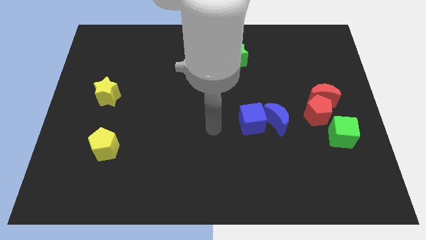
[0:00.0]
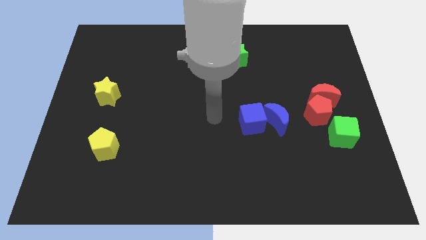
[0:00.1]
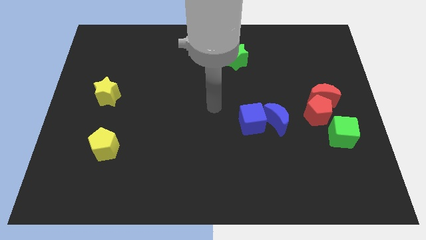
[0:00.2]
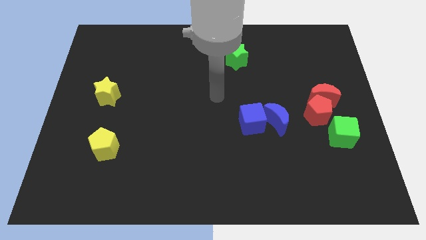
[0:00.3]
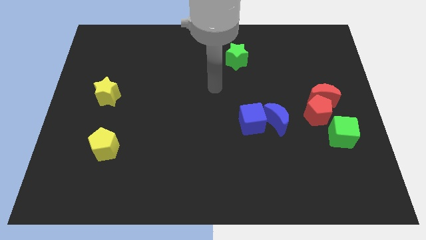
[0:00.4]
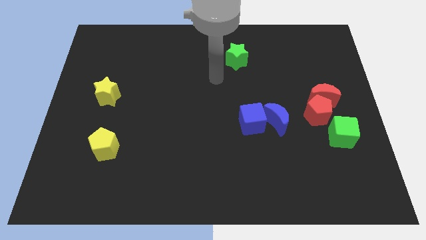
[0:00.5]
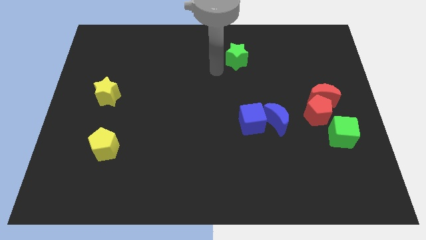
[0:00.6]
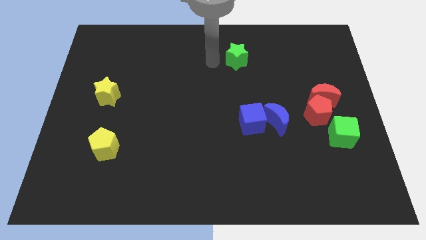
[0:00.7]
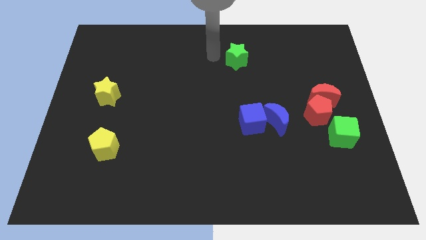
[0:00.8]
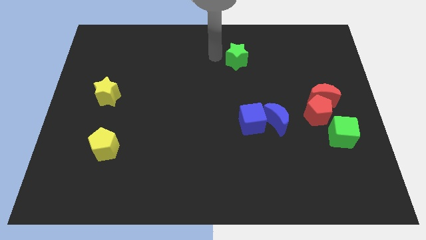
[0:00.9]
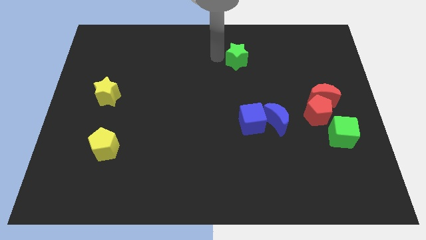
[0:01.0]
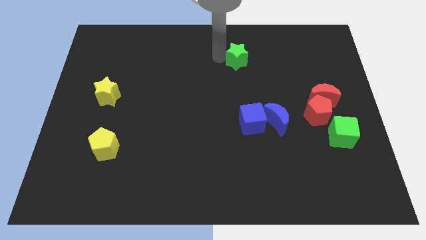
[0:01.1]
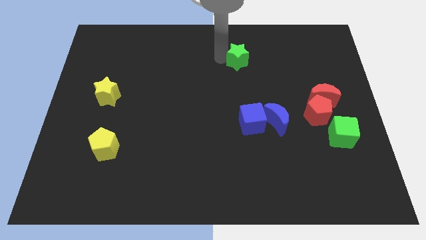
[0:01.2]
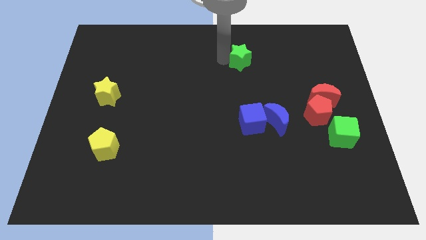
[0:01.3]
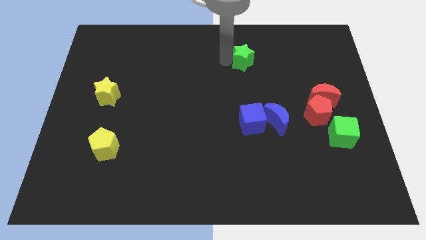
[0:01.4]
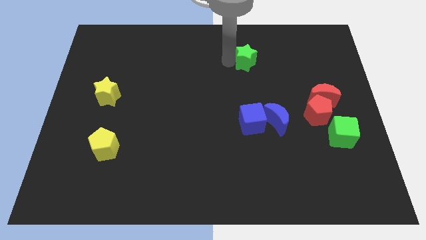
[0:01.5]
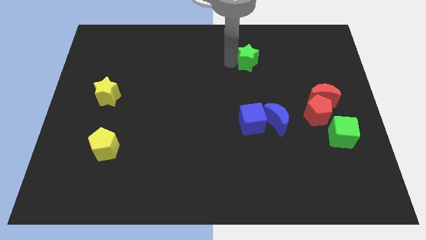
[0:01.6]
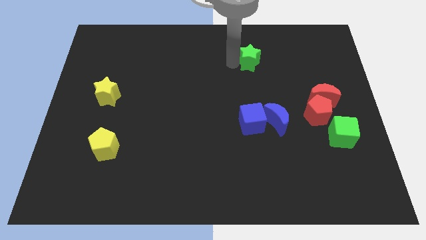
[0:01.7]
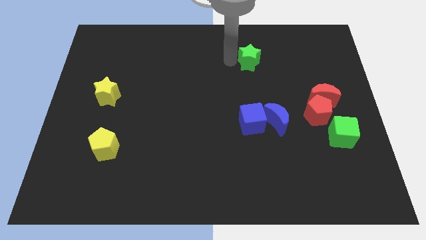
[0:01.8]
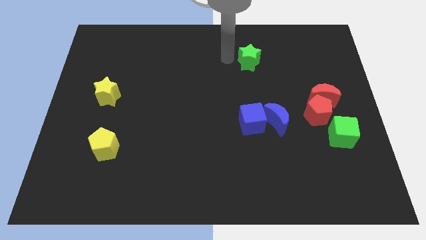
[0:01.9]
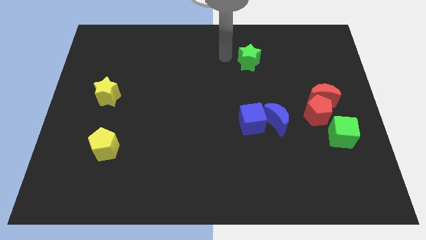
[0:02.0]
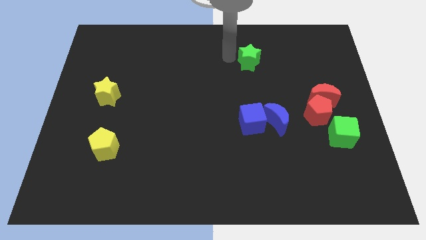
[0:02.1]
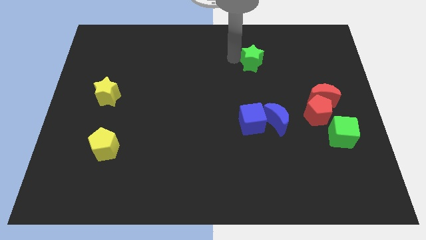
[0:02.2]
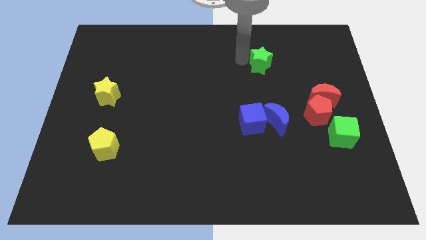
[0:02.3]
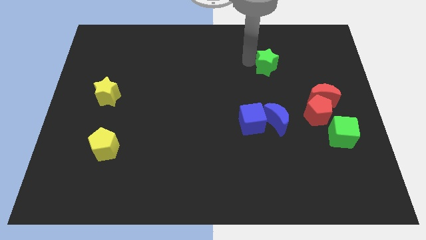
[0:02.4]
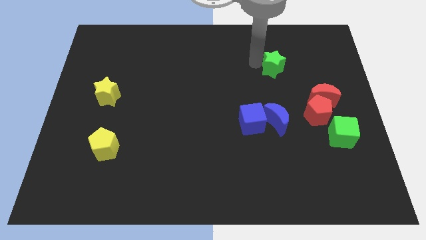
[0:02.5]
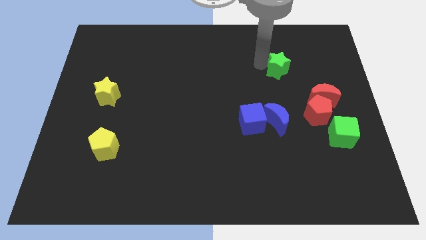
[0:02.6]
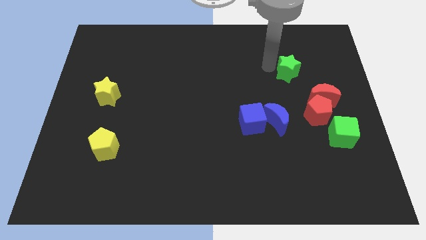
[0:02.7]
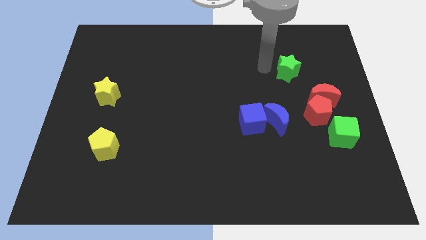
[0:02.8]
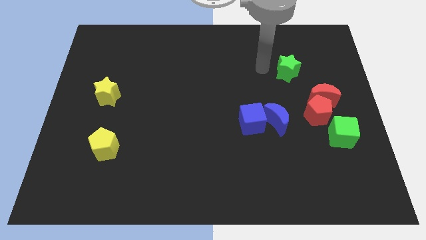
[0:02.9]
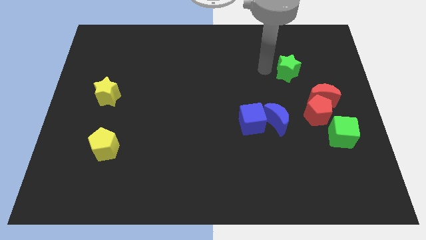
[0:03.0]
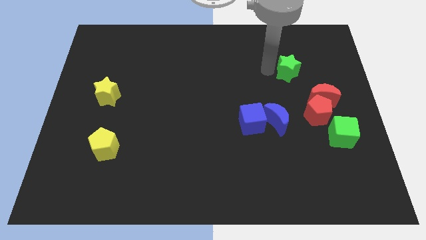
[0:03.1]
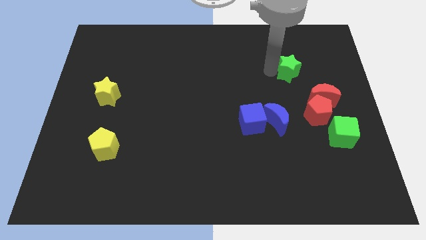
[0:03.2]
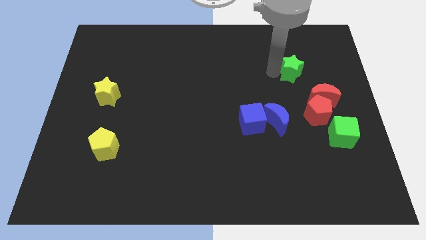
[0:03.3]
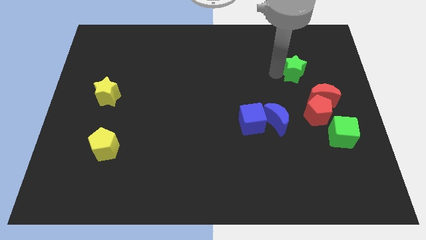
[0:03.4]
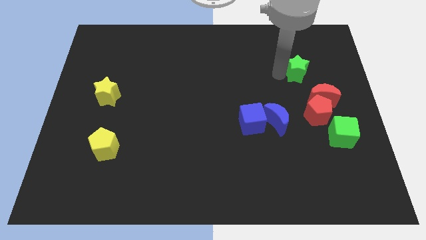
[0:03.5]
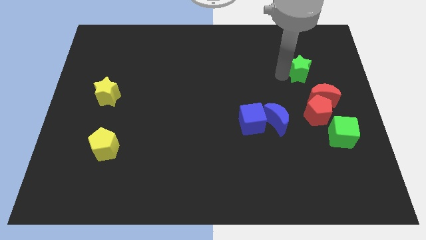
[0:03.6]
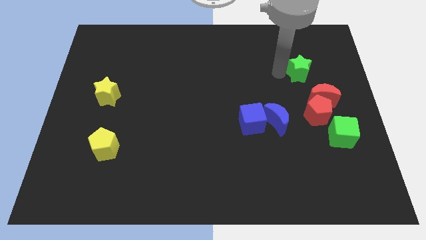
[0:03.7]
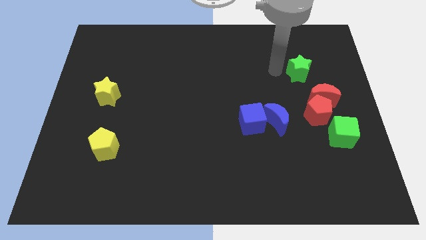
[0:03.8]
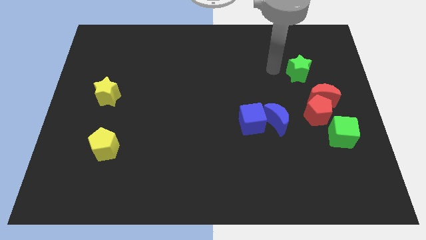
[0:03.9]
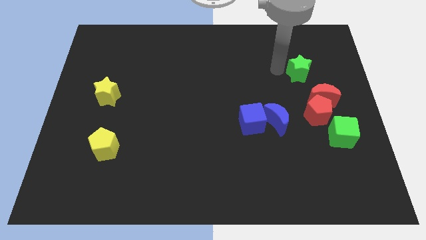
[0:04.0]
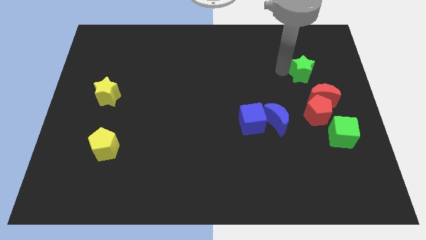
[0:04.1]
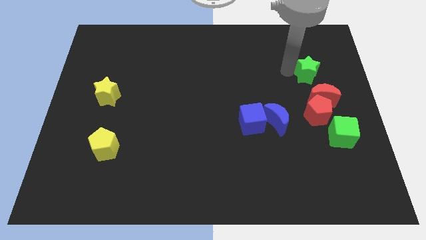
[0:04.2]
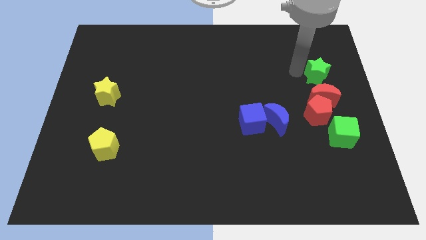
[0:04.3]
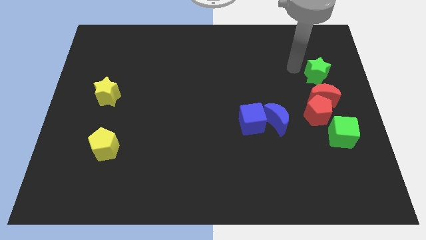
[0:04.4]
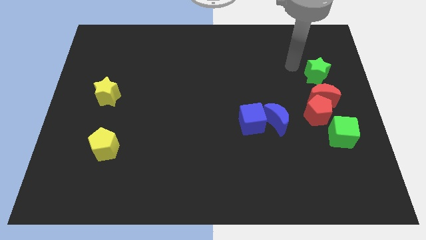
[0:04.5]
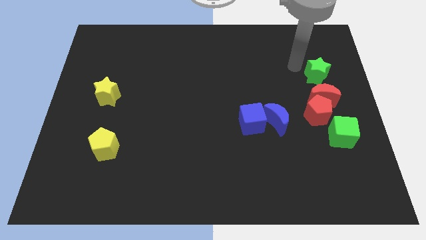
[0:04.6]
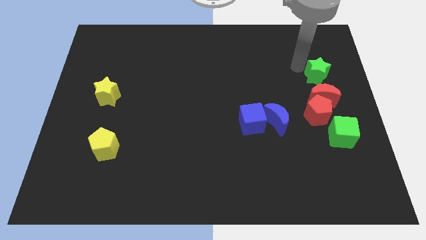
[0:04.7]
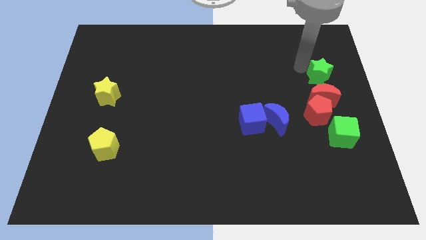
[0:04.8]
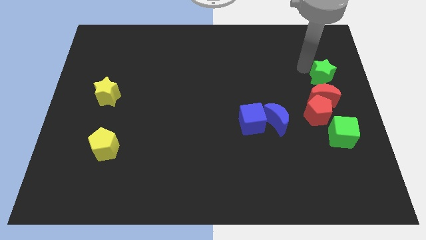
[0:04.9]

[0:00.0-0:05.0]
slide the green star to the center right

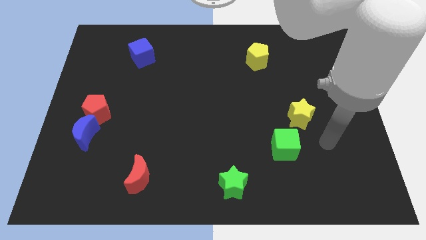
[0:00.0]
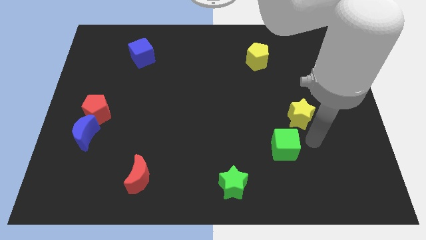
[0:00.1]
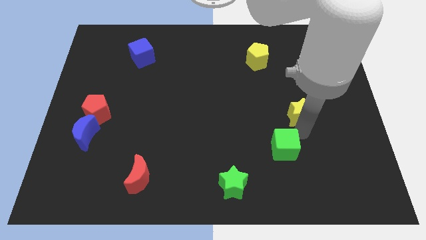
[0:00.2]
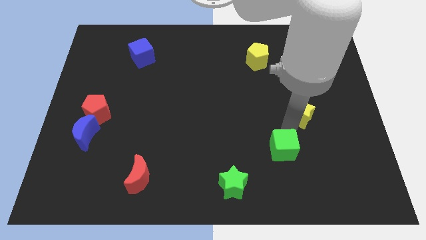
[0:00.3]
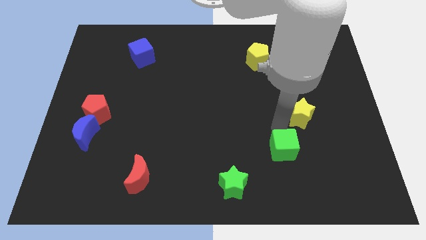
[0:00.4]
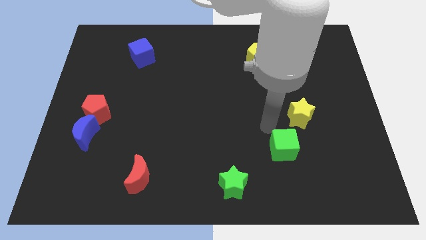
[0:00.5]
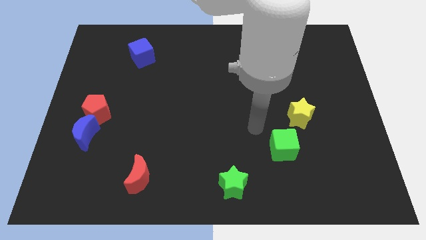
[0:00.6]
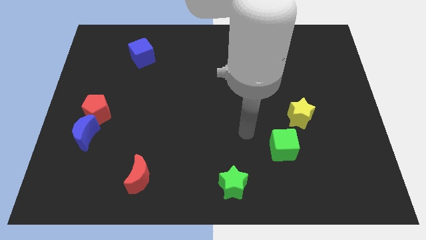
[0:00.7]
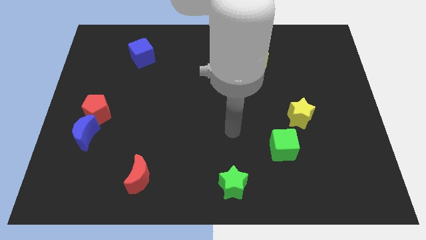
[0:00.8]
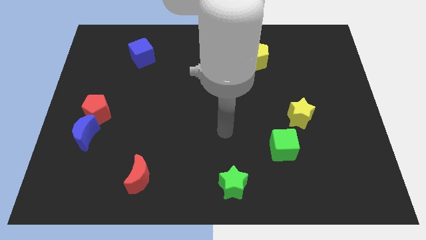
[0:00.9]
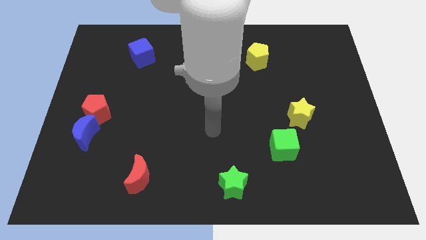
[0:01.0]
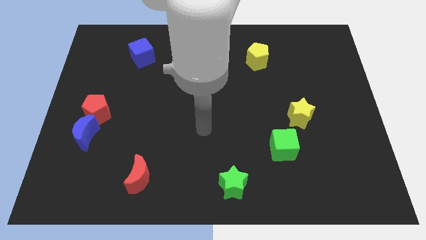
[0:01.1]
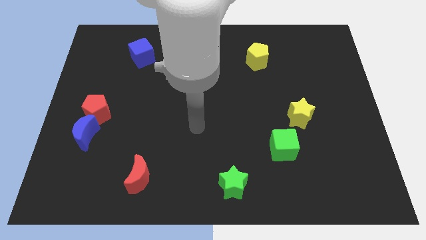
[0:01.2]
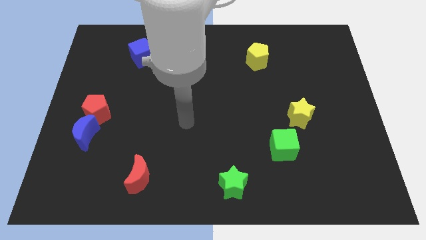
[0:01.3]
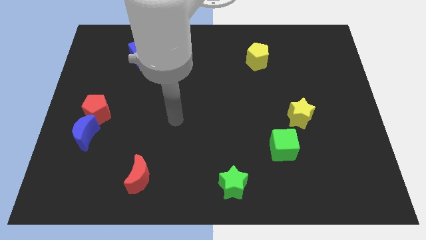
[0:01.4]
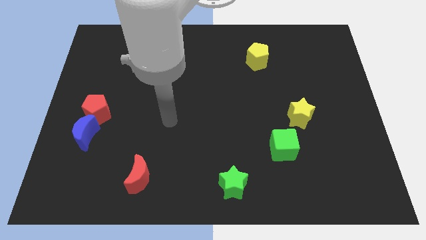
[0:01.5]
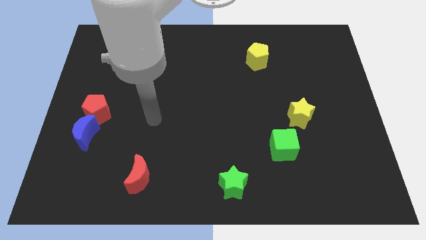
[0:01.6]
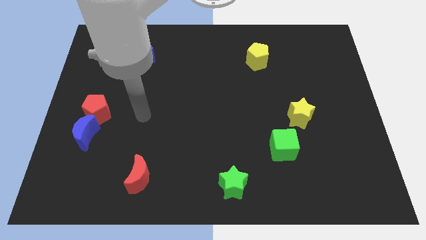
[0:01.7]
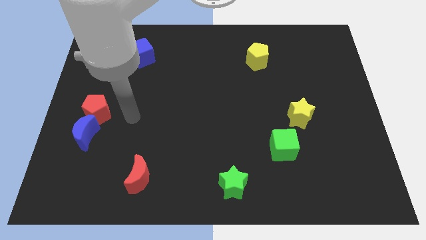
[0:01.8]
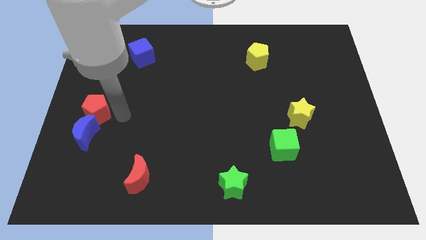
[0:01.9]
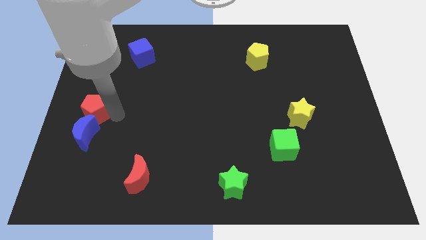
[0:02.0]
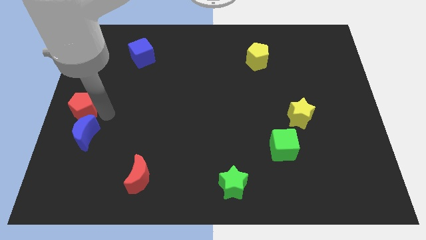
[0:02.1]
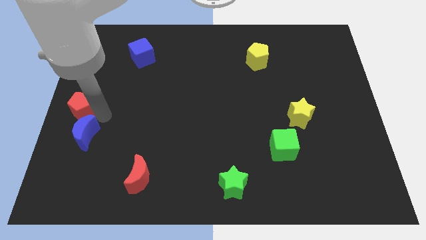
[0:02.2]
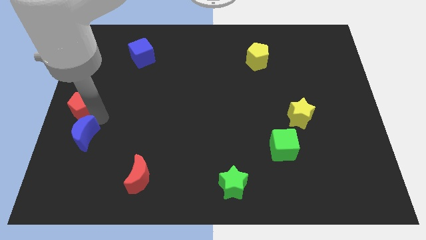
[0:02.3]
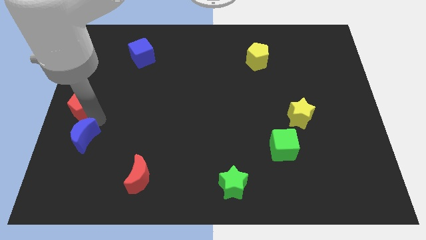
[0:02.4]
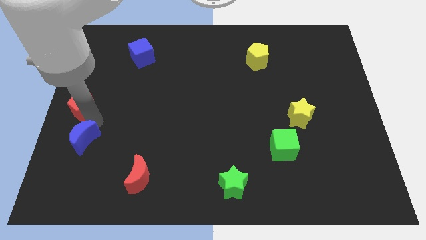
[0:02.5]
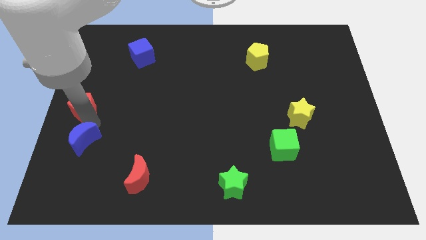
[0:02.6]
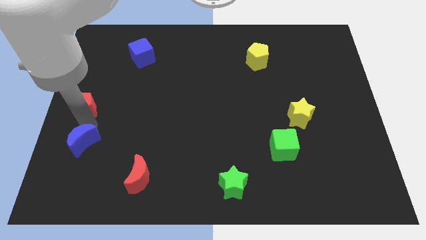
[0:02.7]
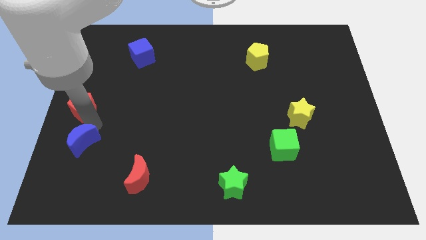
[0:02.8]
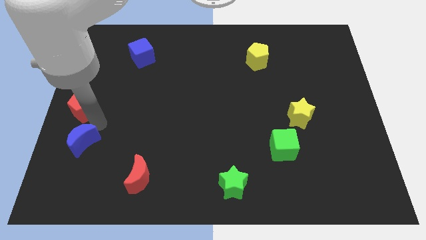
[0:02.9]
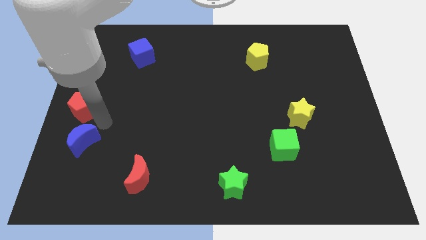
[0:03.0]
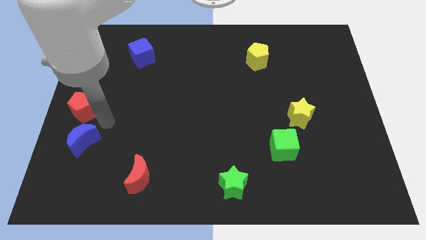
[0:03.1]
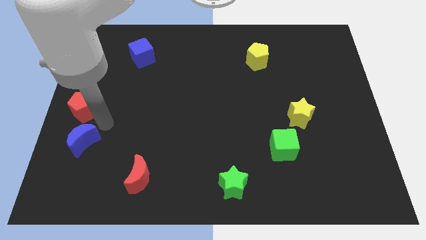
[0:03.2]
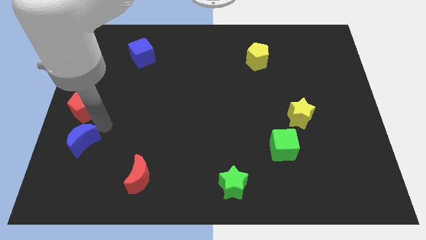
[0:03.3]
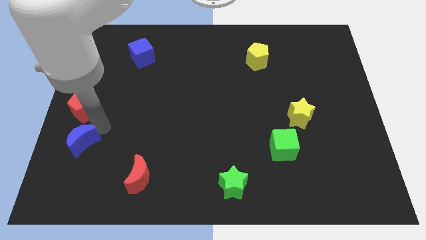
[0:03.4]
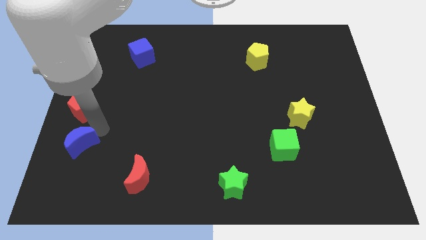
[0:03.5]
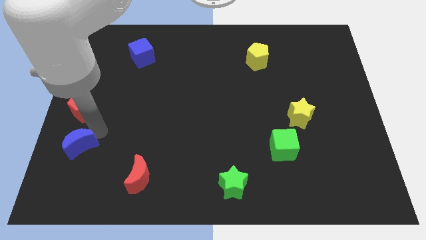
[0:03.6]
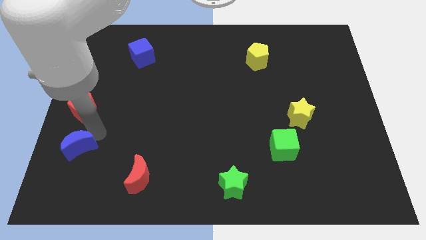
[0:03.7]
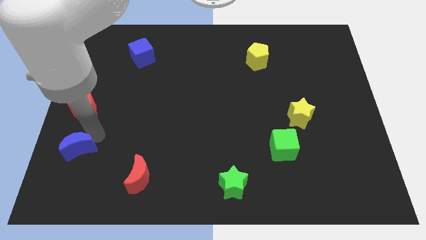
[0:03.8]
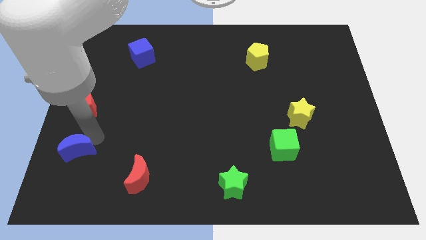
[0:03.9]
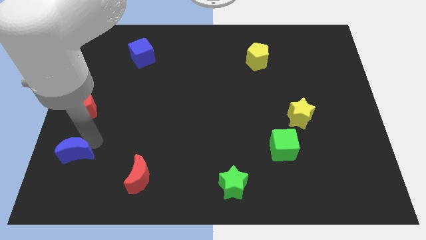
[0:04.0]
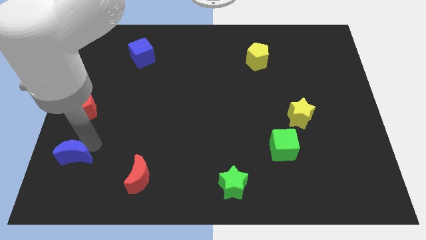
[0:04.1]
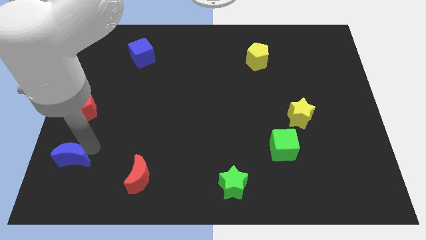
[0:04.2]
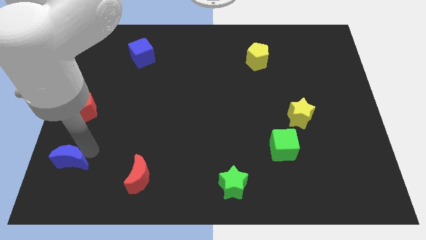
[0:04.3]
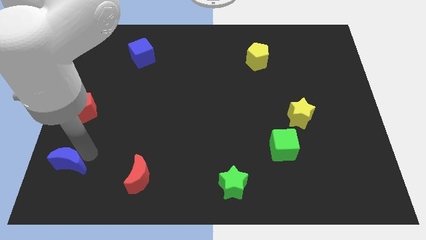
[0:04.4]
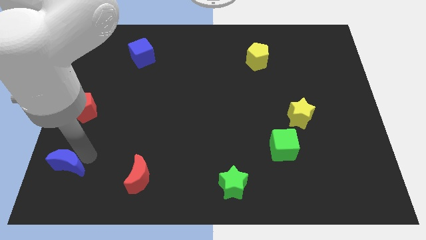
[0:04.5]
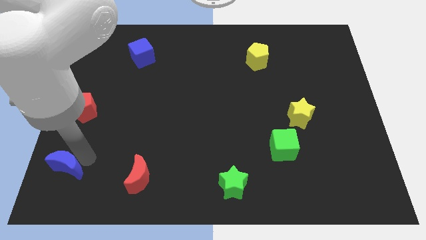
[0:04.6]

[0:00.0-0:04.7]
put the blue moon to the lower left corner
